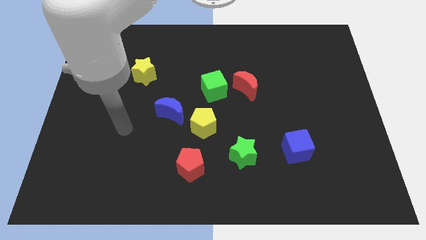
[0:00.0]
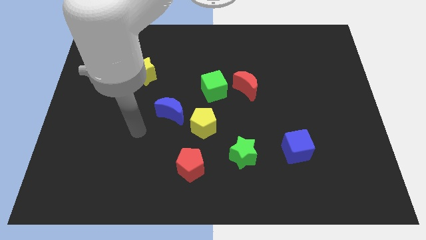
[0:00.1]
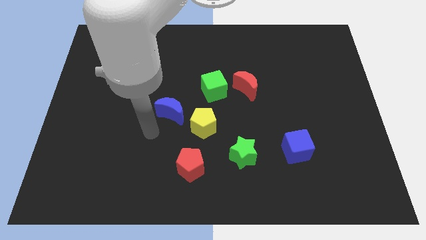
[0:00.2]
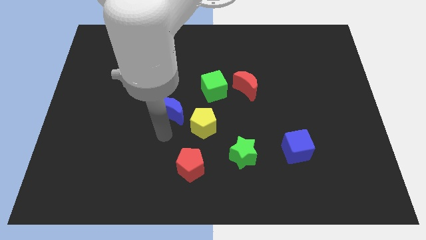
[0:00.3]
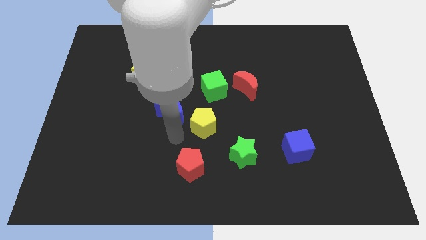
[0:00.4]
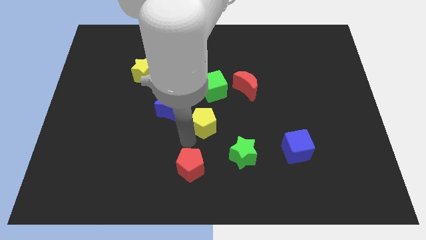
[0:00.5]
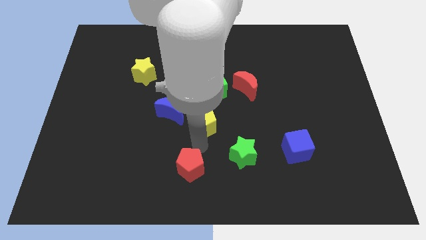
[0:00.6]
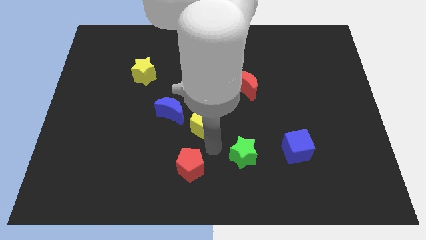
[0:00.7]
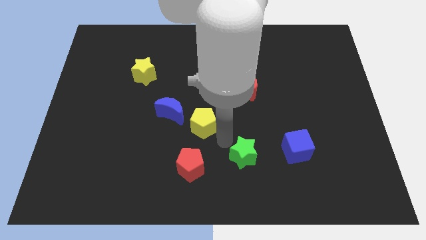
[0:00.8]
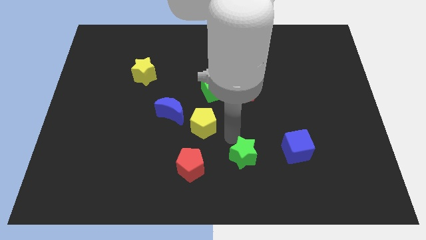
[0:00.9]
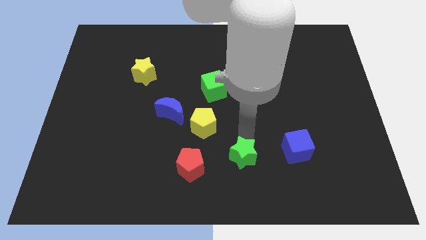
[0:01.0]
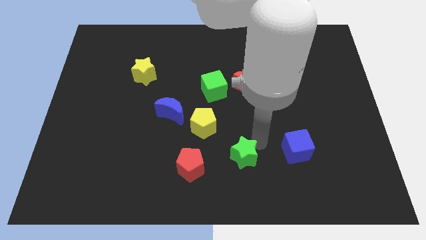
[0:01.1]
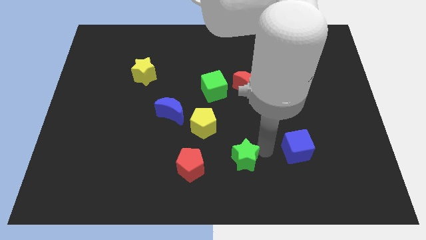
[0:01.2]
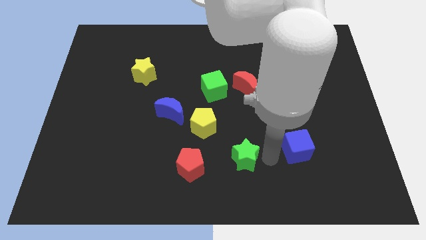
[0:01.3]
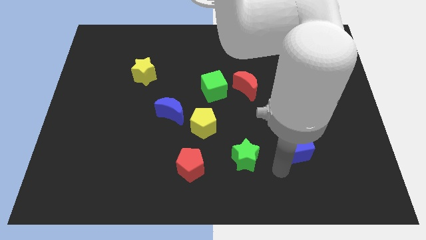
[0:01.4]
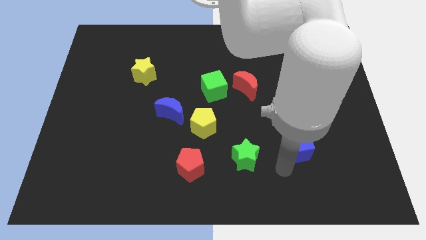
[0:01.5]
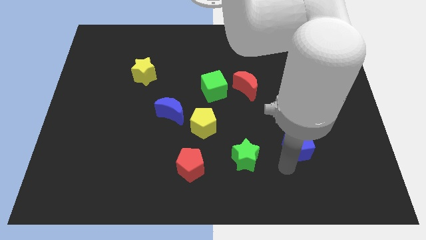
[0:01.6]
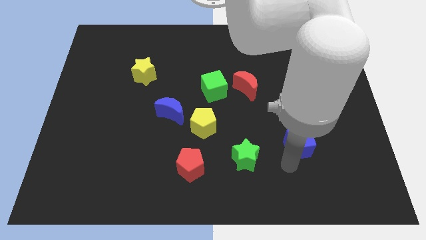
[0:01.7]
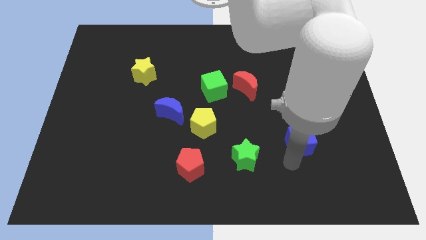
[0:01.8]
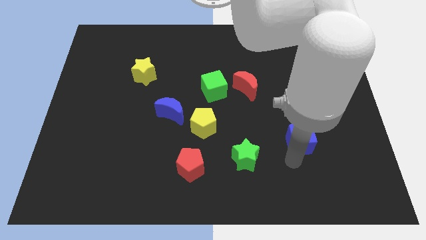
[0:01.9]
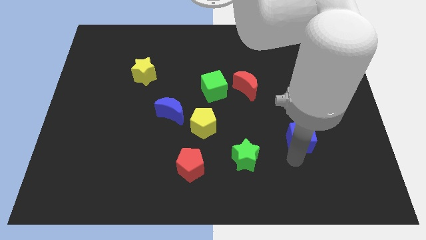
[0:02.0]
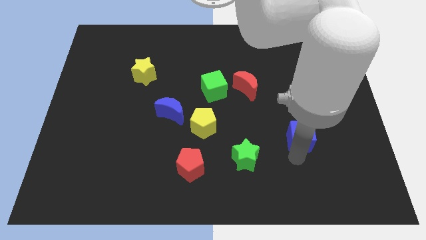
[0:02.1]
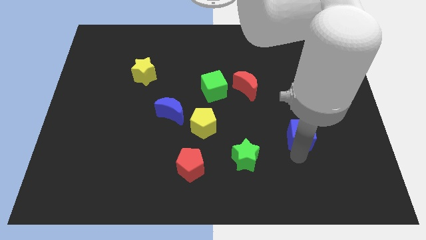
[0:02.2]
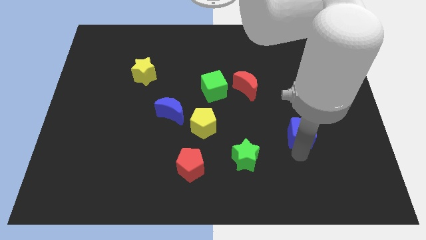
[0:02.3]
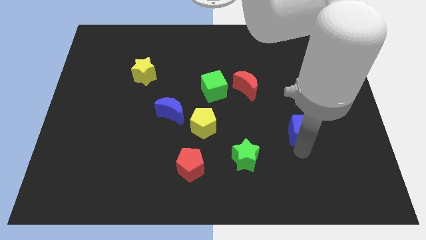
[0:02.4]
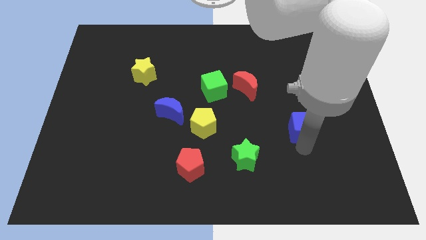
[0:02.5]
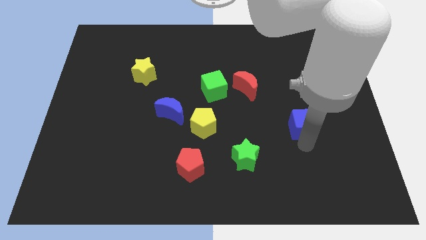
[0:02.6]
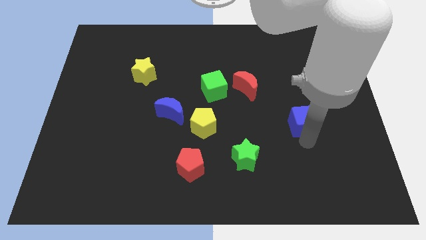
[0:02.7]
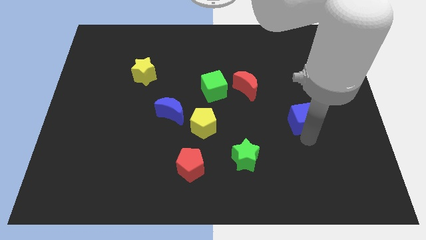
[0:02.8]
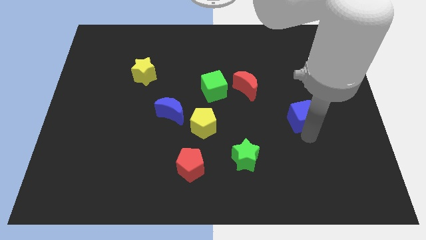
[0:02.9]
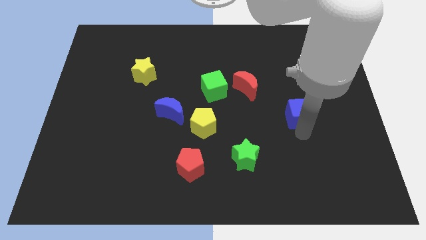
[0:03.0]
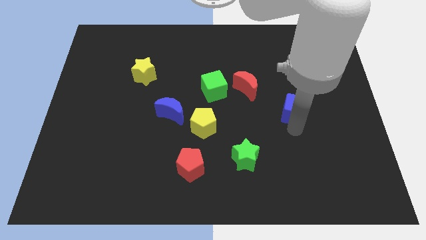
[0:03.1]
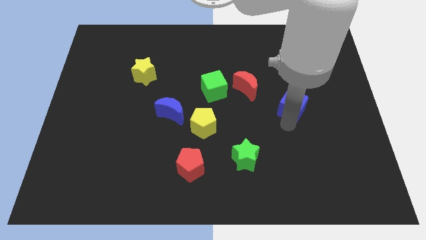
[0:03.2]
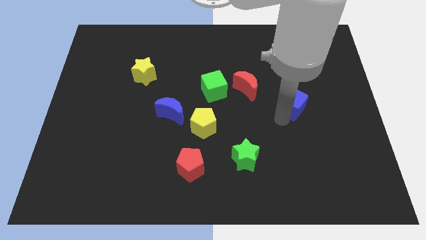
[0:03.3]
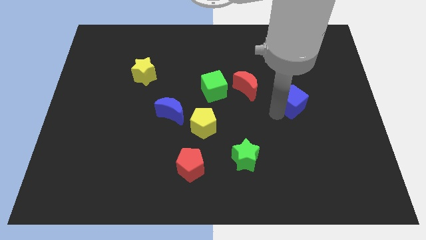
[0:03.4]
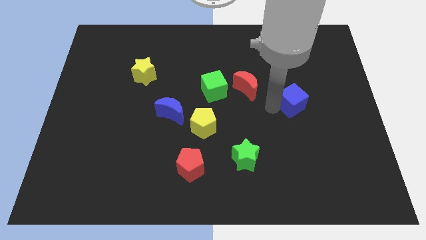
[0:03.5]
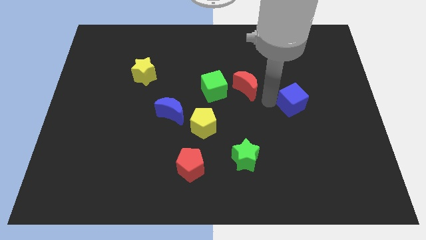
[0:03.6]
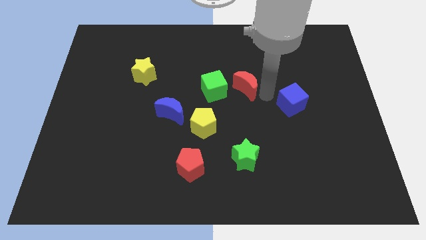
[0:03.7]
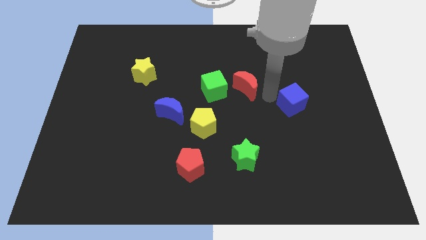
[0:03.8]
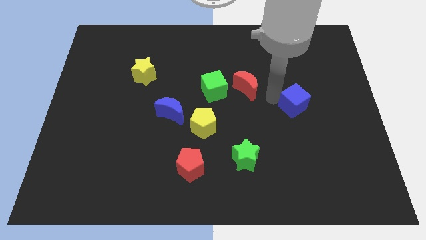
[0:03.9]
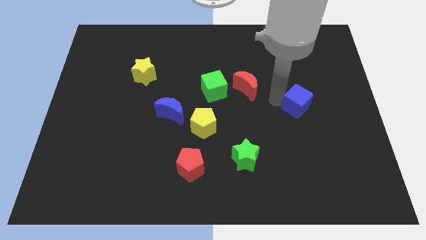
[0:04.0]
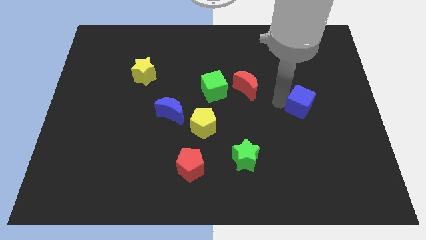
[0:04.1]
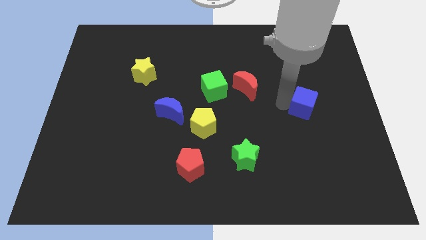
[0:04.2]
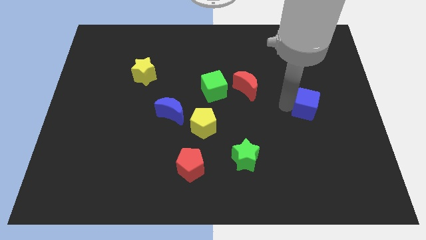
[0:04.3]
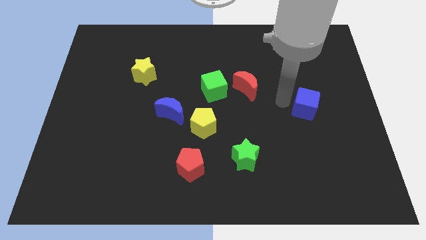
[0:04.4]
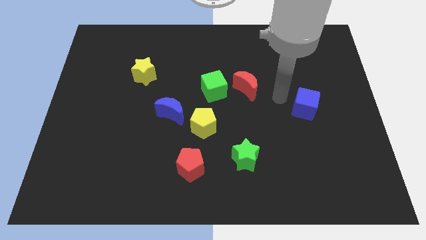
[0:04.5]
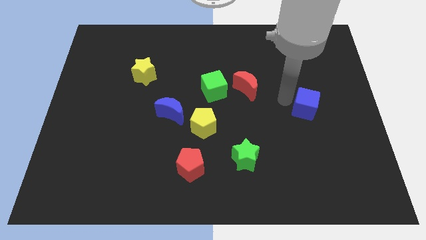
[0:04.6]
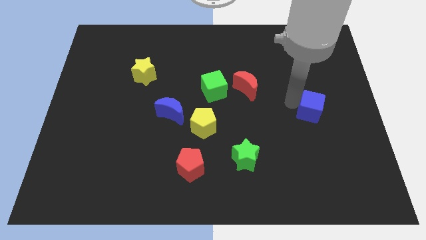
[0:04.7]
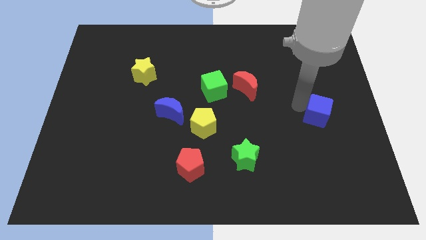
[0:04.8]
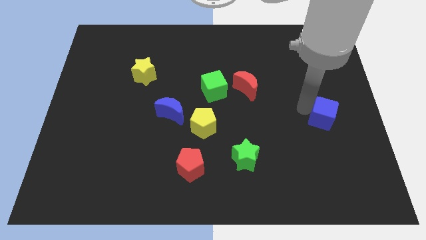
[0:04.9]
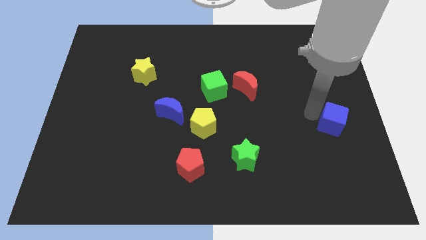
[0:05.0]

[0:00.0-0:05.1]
push the blue cube to the center right

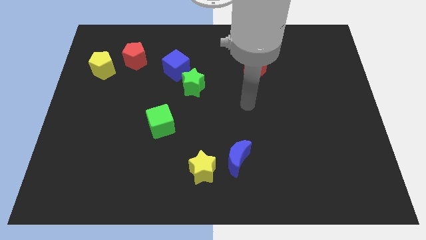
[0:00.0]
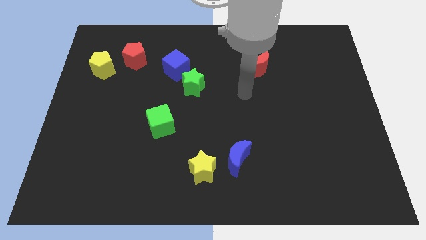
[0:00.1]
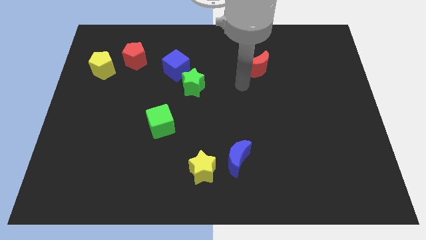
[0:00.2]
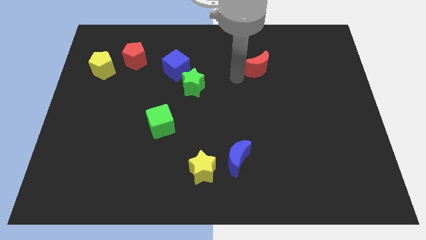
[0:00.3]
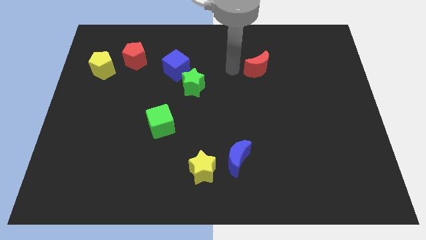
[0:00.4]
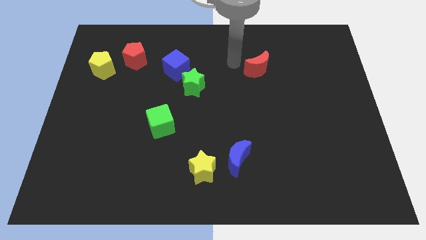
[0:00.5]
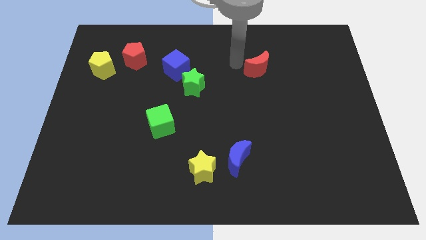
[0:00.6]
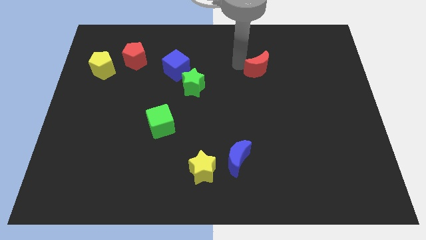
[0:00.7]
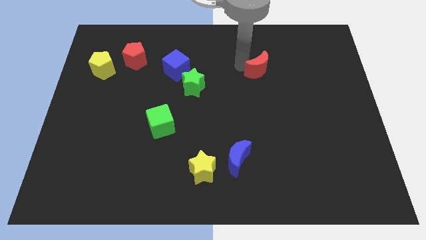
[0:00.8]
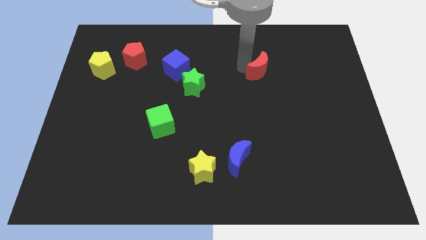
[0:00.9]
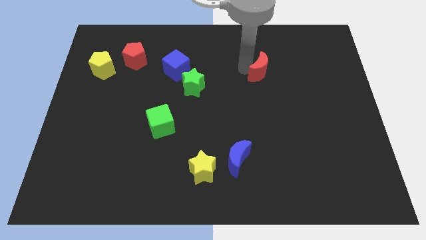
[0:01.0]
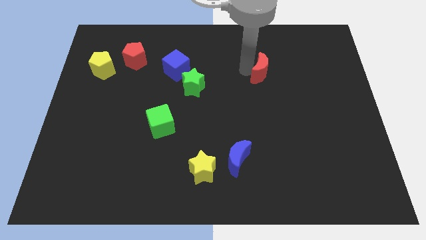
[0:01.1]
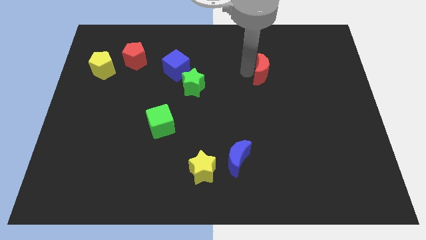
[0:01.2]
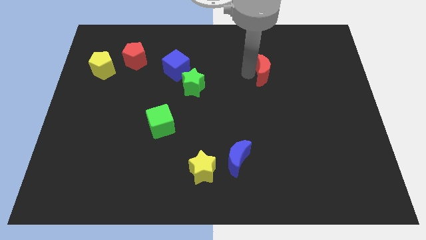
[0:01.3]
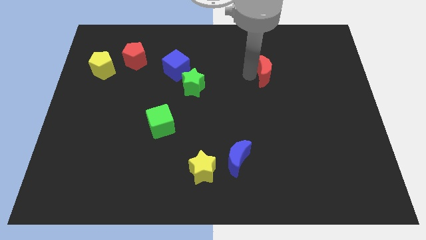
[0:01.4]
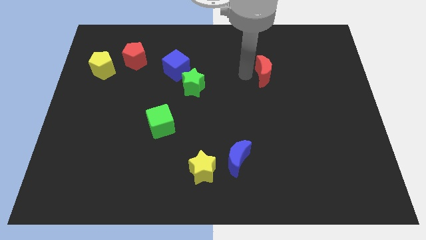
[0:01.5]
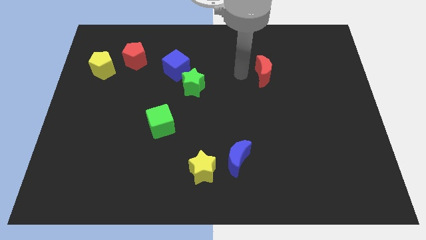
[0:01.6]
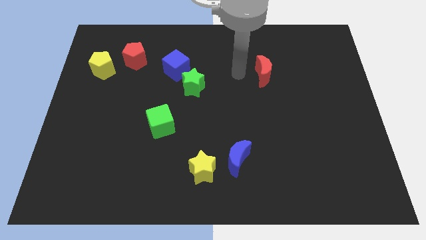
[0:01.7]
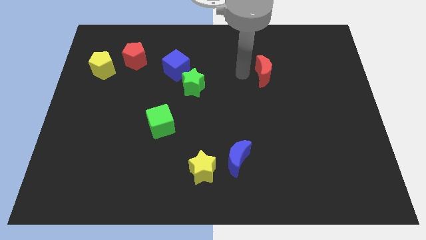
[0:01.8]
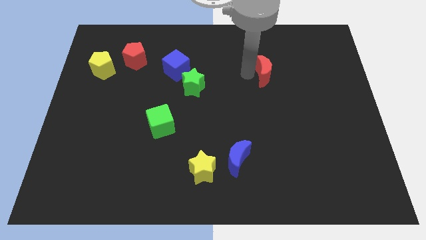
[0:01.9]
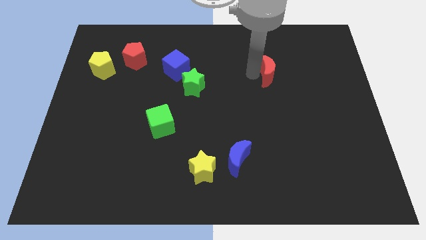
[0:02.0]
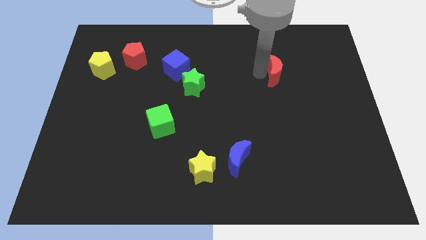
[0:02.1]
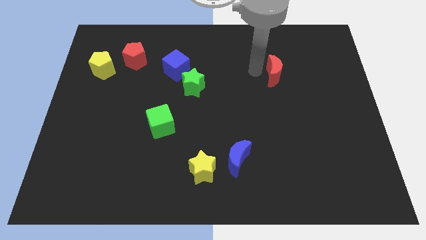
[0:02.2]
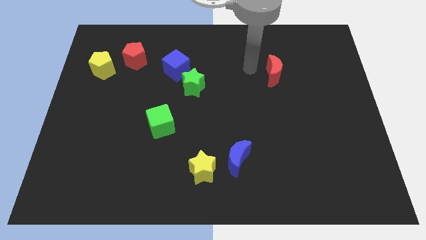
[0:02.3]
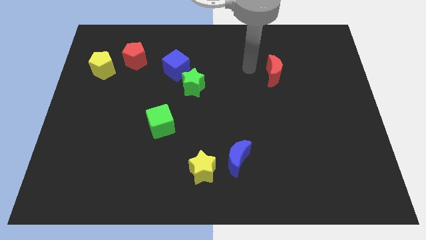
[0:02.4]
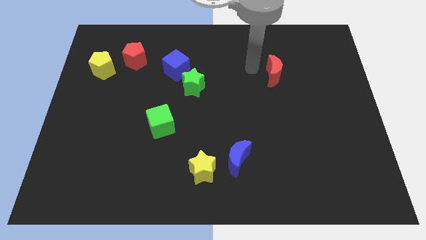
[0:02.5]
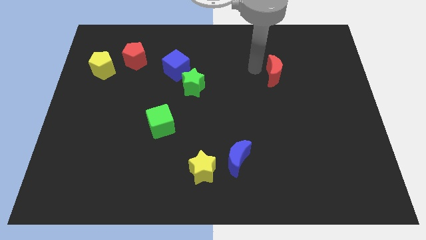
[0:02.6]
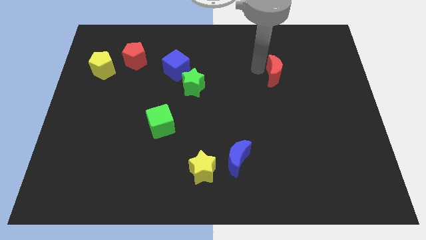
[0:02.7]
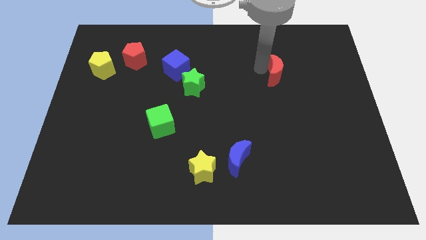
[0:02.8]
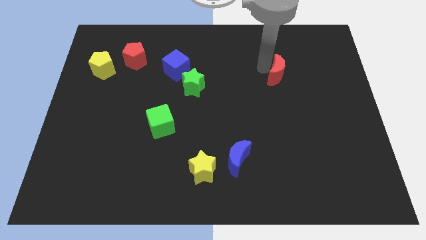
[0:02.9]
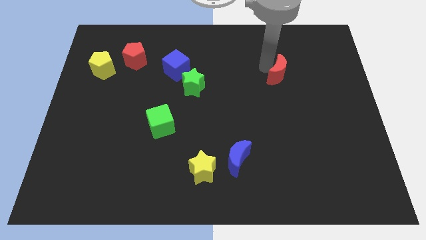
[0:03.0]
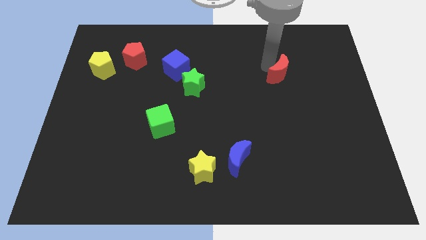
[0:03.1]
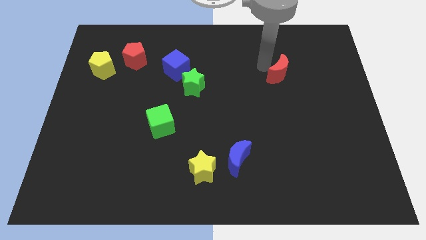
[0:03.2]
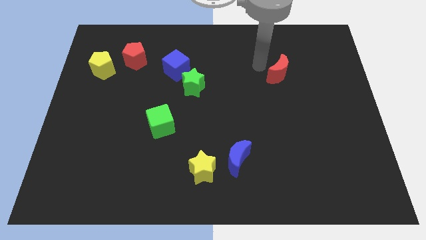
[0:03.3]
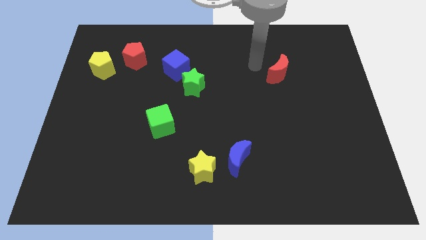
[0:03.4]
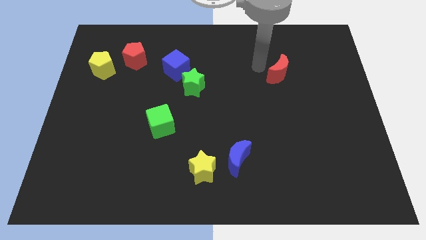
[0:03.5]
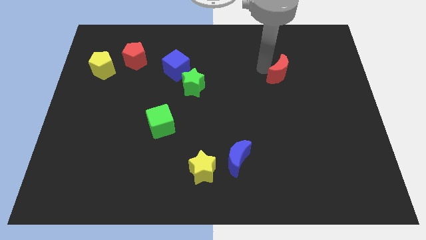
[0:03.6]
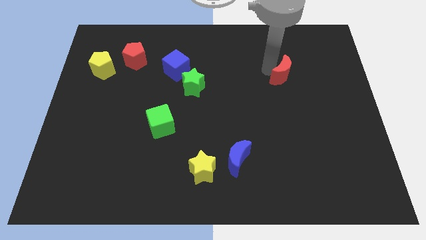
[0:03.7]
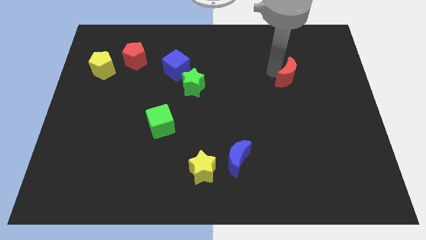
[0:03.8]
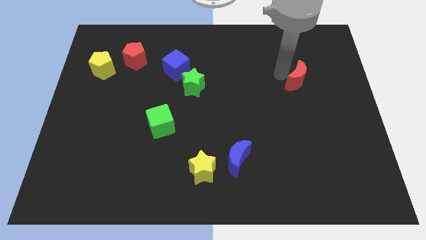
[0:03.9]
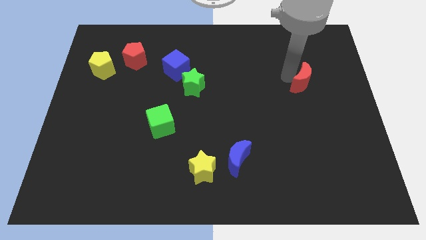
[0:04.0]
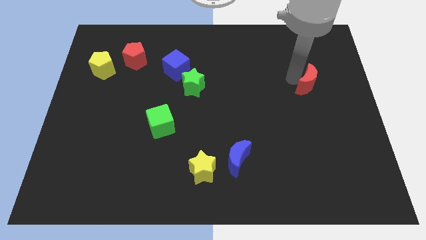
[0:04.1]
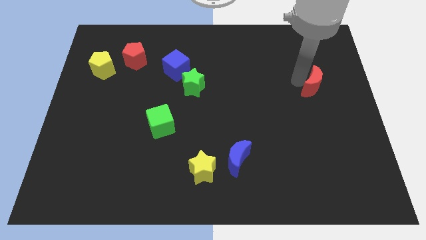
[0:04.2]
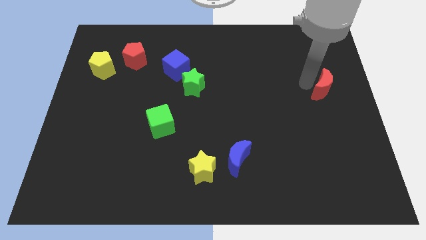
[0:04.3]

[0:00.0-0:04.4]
push the red moon to the center right
